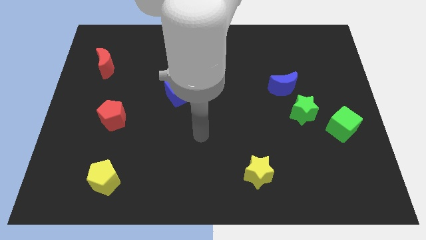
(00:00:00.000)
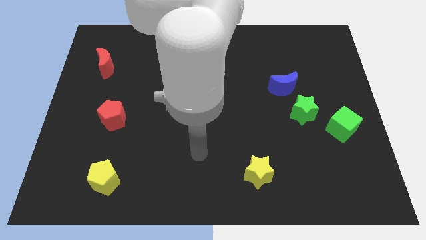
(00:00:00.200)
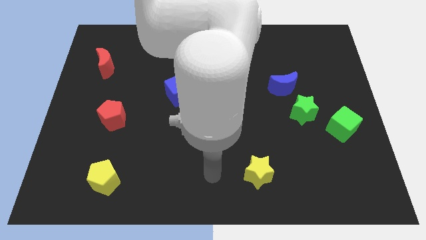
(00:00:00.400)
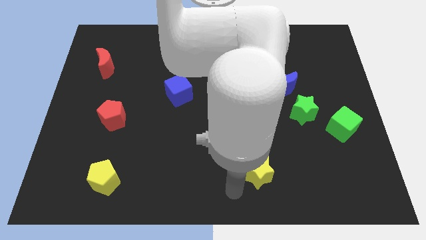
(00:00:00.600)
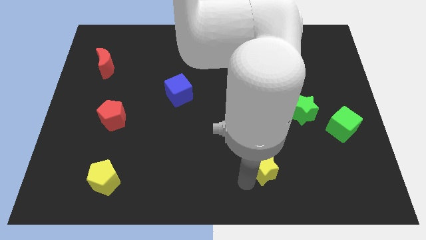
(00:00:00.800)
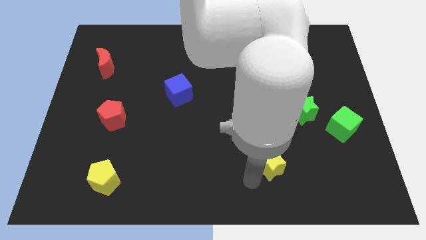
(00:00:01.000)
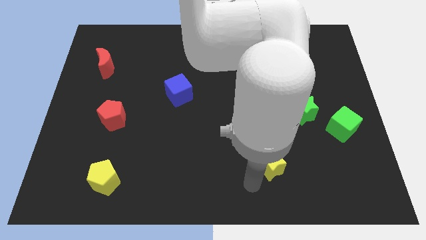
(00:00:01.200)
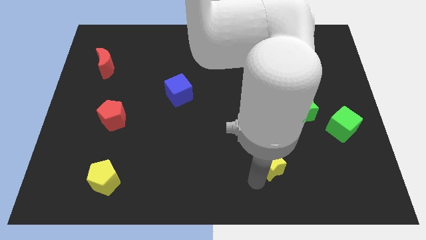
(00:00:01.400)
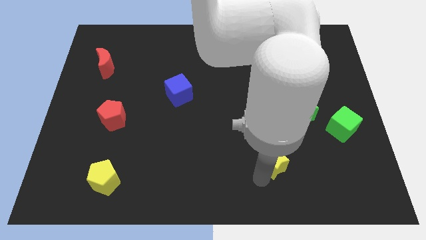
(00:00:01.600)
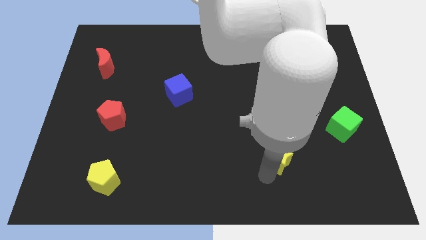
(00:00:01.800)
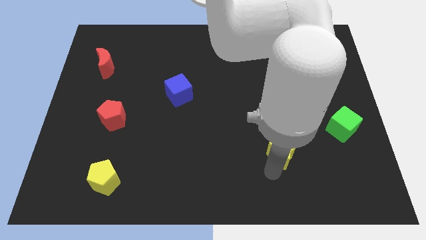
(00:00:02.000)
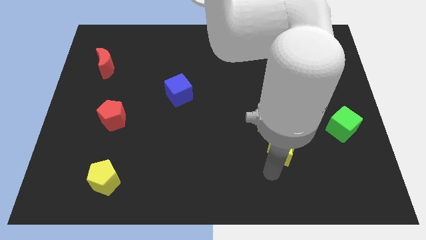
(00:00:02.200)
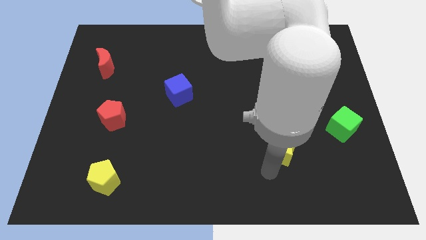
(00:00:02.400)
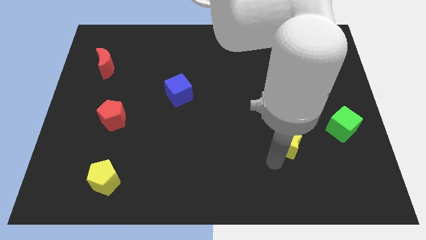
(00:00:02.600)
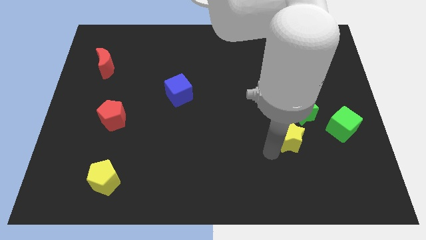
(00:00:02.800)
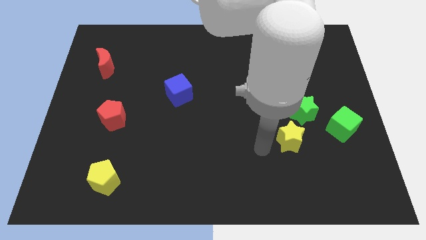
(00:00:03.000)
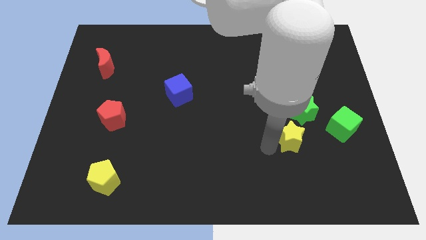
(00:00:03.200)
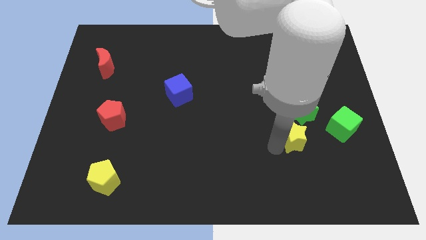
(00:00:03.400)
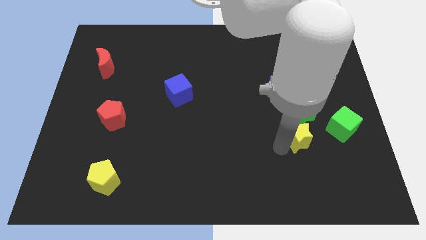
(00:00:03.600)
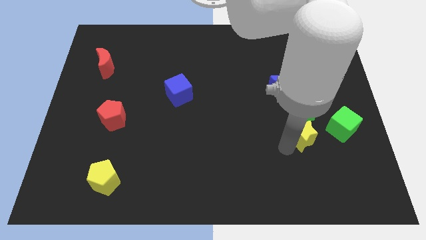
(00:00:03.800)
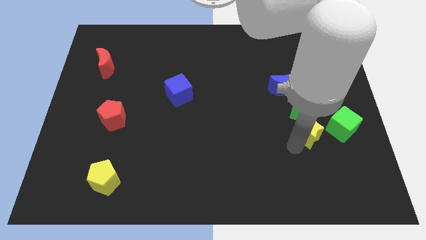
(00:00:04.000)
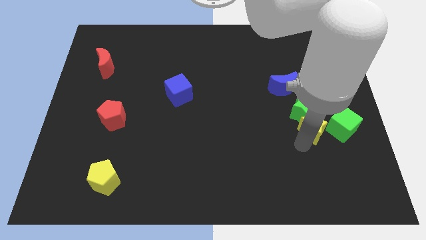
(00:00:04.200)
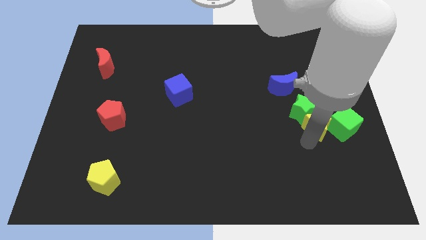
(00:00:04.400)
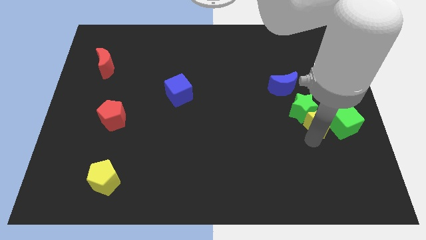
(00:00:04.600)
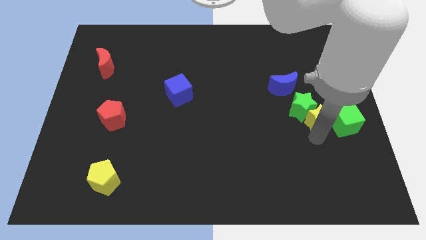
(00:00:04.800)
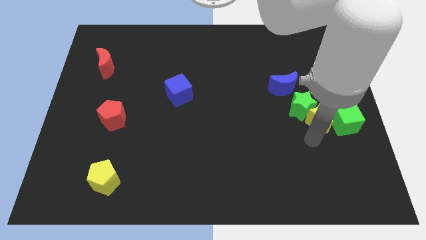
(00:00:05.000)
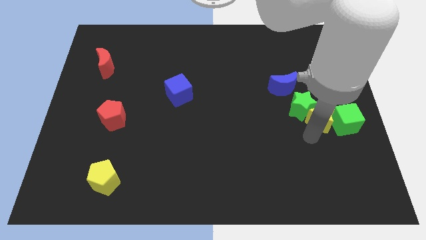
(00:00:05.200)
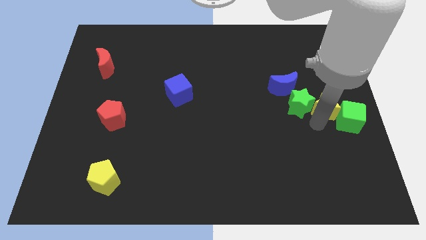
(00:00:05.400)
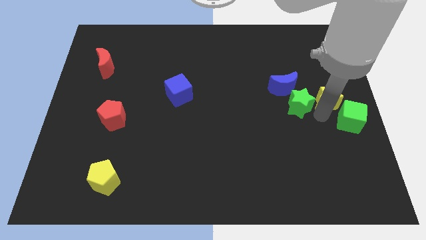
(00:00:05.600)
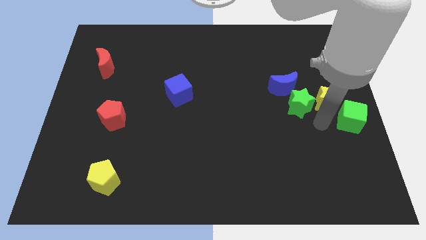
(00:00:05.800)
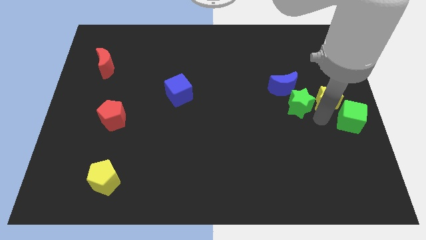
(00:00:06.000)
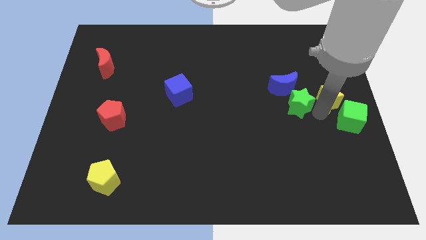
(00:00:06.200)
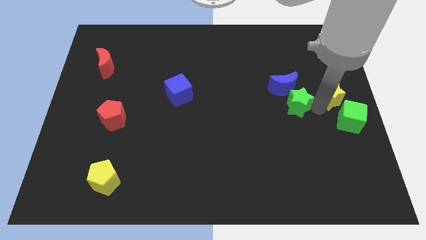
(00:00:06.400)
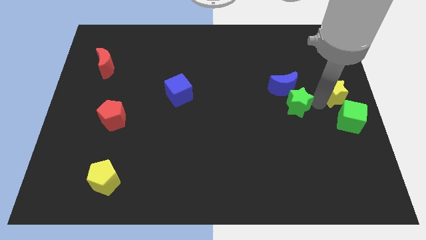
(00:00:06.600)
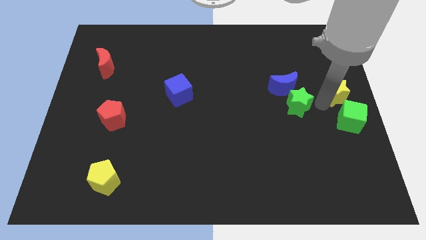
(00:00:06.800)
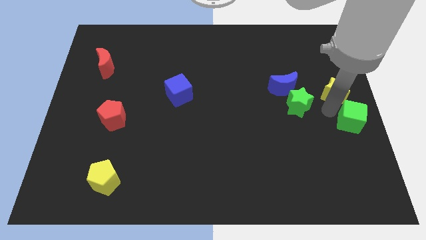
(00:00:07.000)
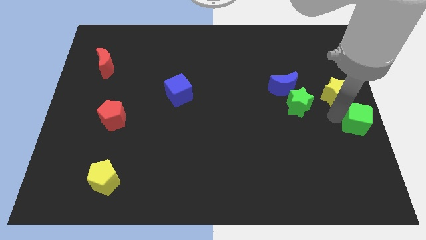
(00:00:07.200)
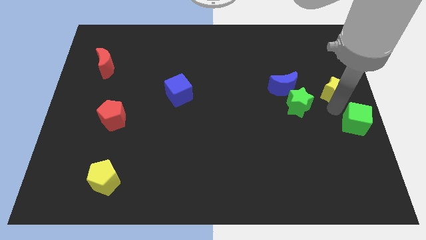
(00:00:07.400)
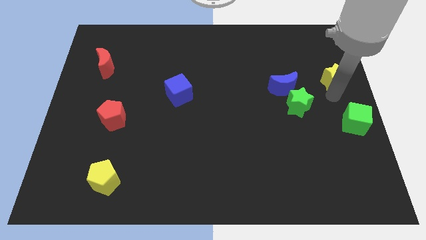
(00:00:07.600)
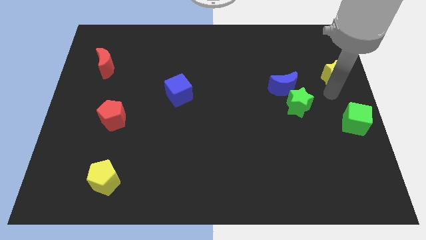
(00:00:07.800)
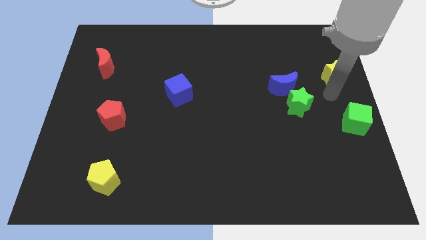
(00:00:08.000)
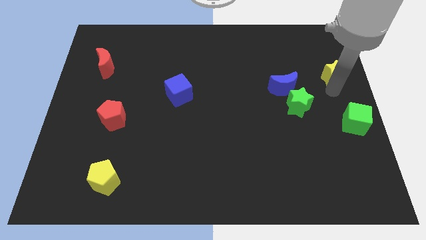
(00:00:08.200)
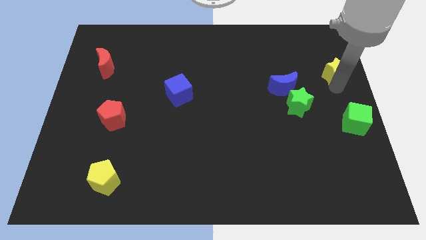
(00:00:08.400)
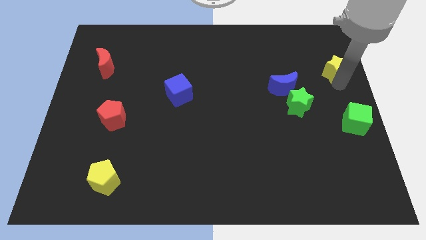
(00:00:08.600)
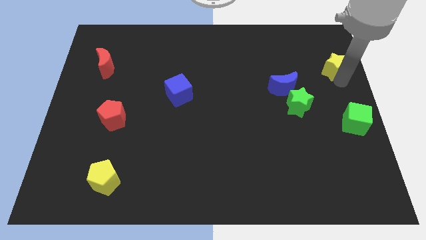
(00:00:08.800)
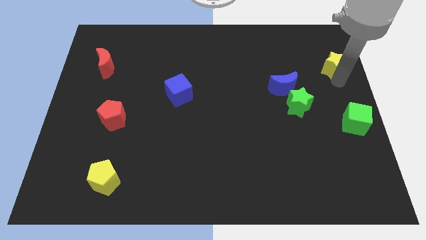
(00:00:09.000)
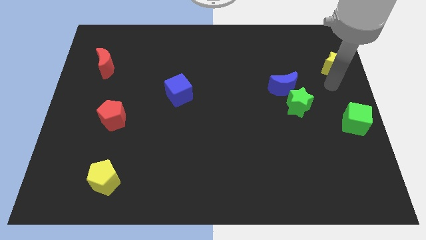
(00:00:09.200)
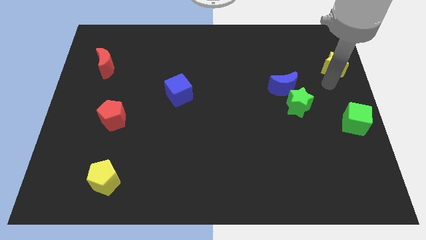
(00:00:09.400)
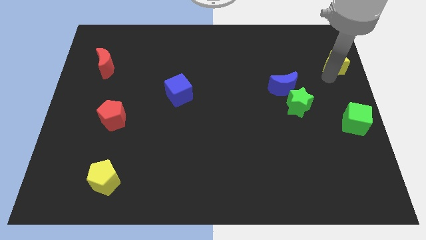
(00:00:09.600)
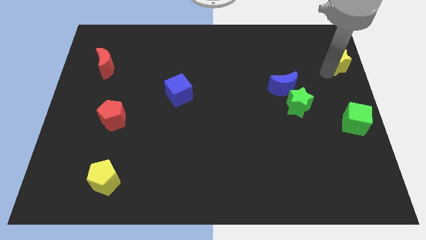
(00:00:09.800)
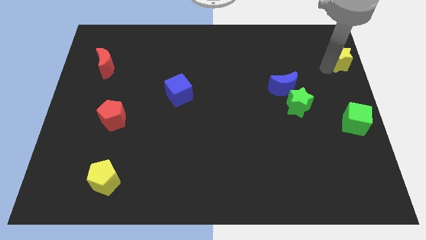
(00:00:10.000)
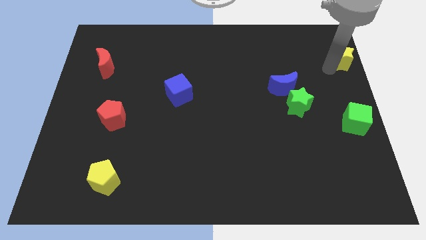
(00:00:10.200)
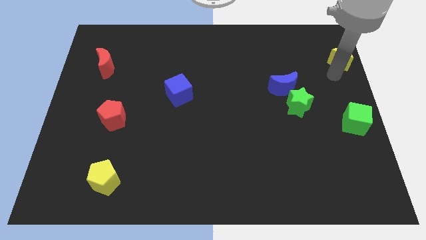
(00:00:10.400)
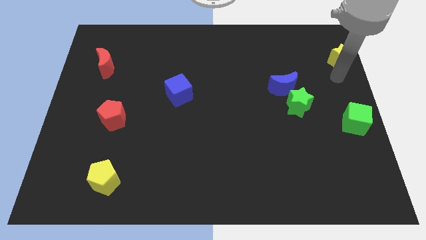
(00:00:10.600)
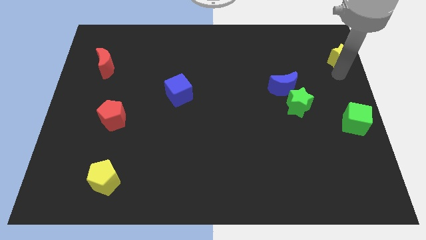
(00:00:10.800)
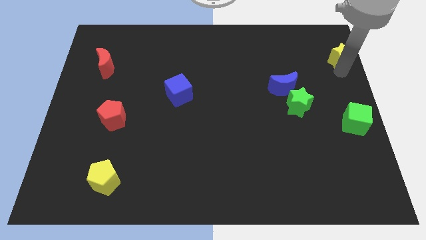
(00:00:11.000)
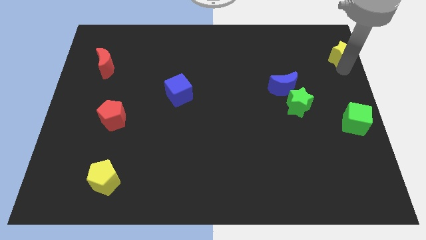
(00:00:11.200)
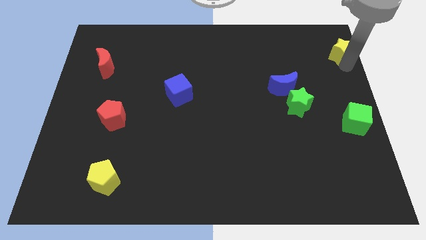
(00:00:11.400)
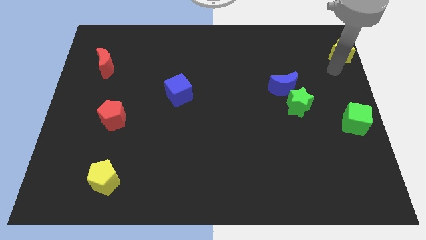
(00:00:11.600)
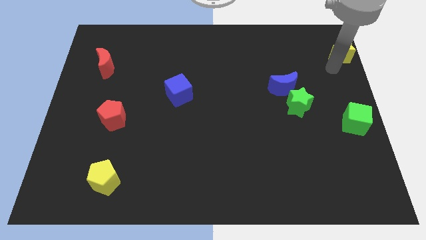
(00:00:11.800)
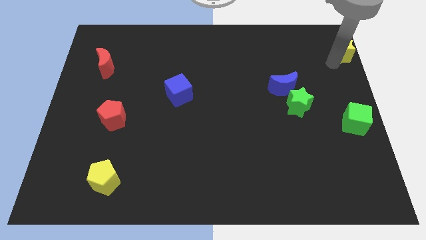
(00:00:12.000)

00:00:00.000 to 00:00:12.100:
put the yellow star to the top right
